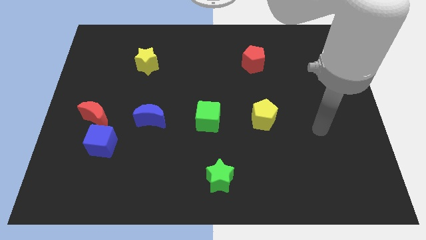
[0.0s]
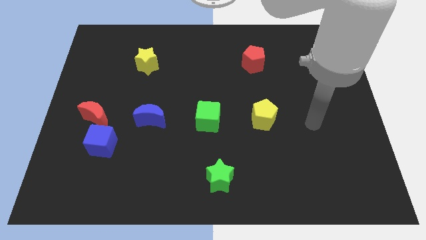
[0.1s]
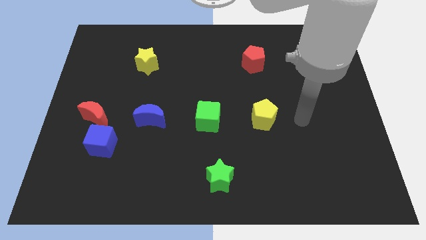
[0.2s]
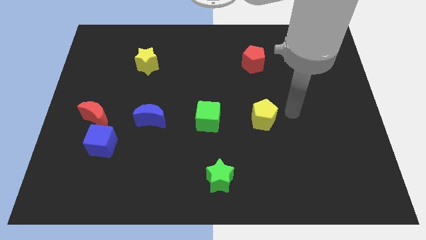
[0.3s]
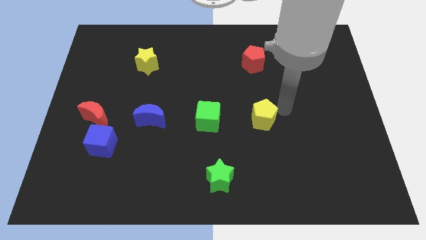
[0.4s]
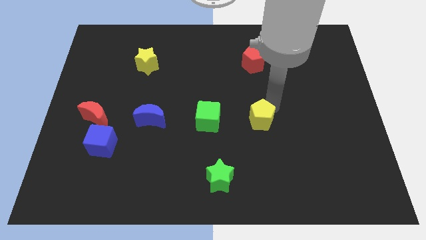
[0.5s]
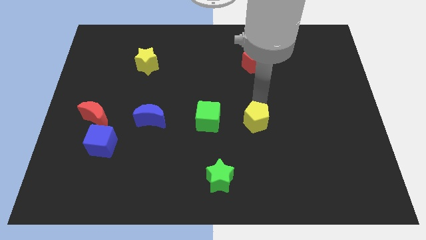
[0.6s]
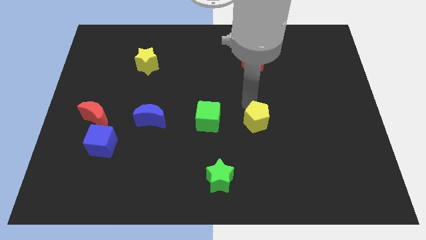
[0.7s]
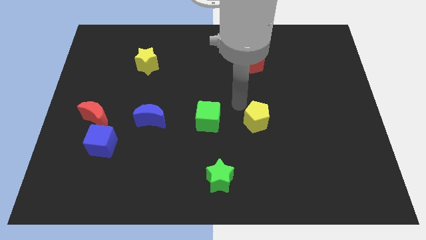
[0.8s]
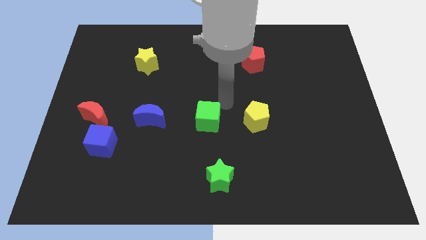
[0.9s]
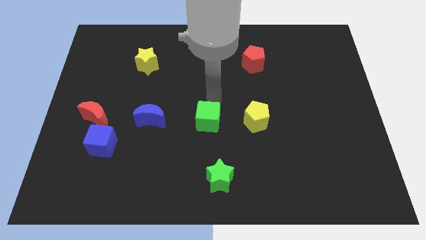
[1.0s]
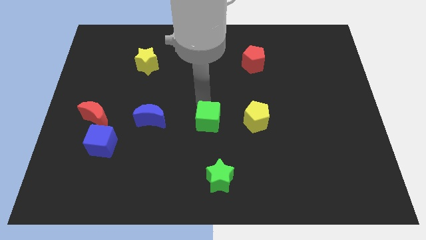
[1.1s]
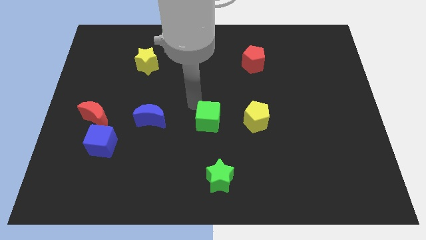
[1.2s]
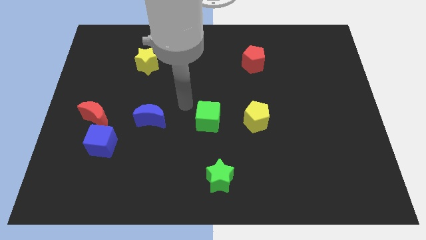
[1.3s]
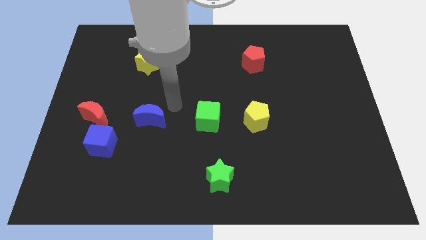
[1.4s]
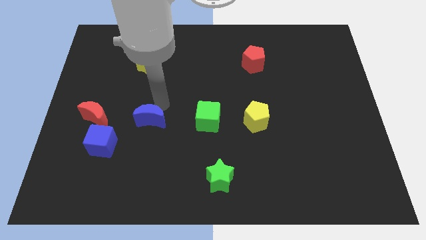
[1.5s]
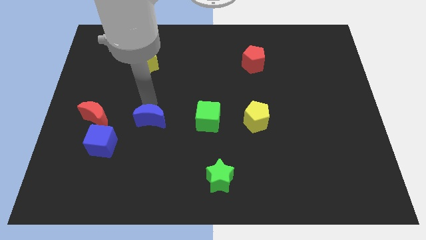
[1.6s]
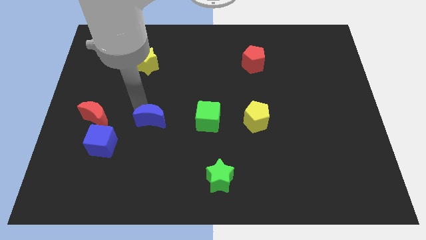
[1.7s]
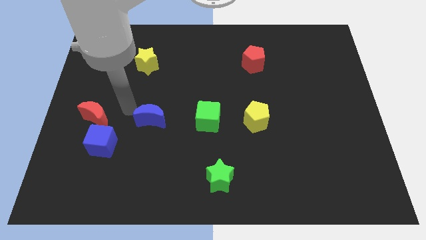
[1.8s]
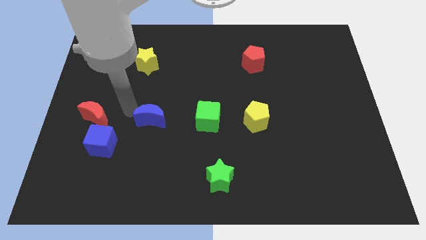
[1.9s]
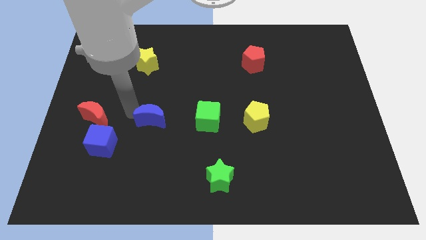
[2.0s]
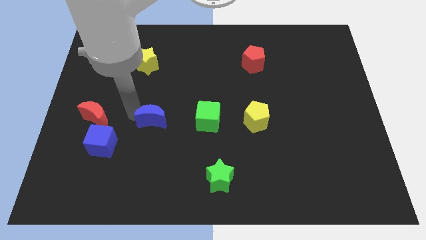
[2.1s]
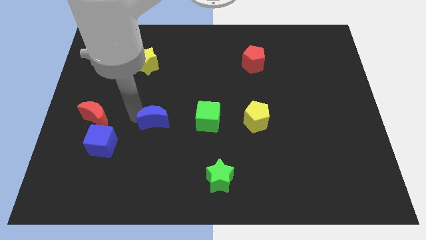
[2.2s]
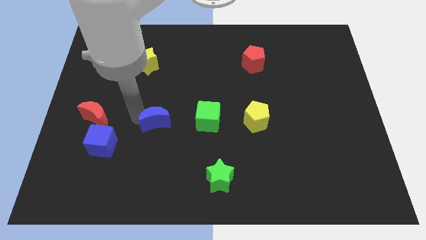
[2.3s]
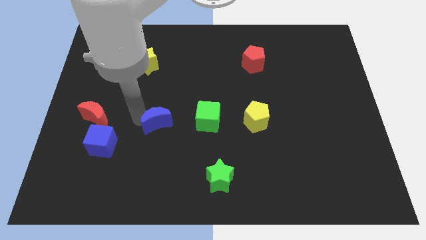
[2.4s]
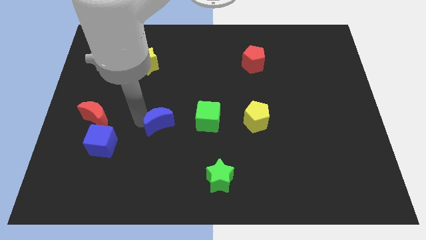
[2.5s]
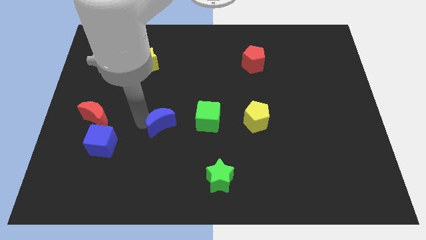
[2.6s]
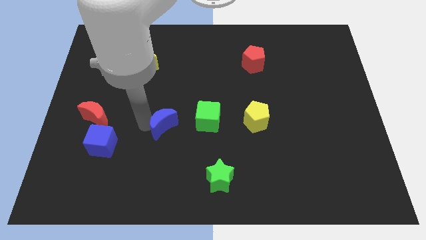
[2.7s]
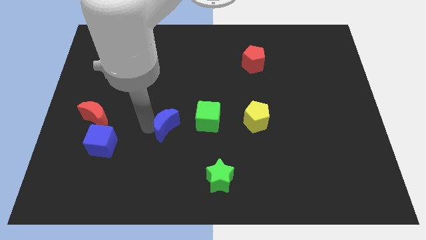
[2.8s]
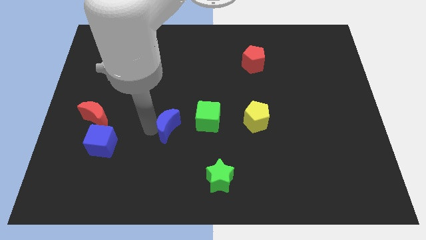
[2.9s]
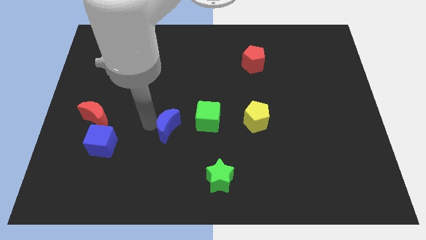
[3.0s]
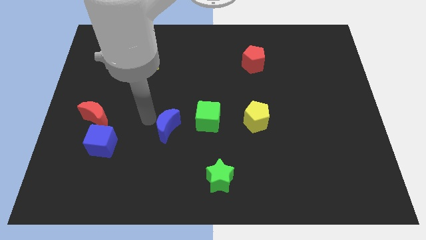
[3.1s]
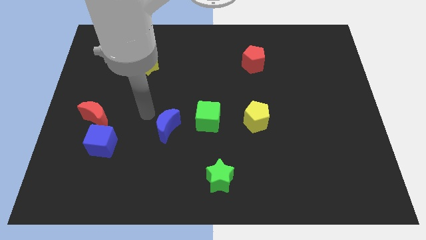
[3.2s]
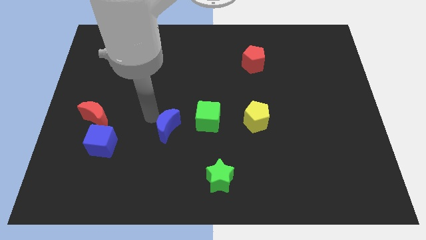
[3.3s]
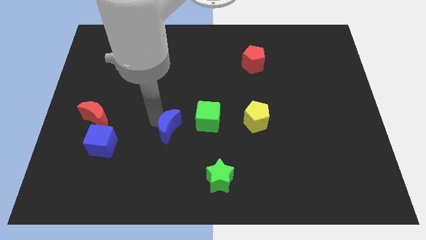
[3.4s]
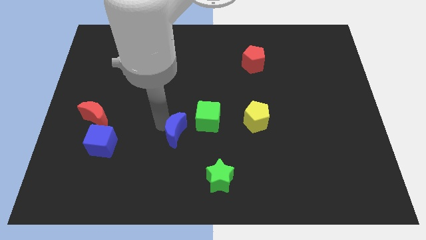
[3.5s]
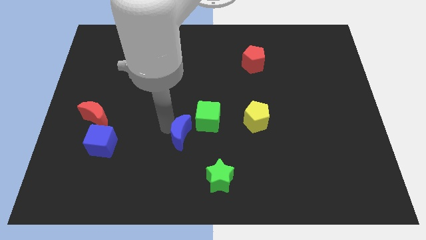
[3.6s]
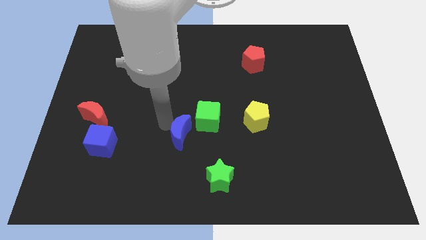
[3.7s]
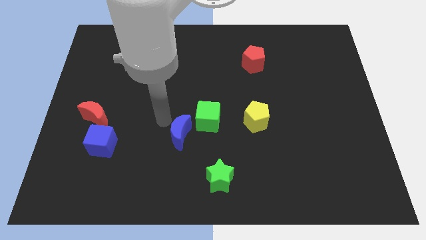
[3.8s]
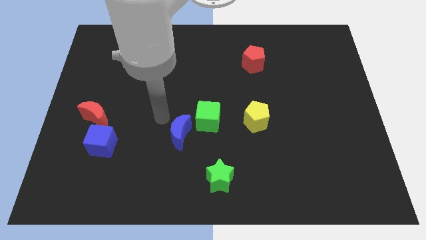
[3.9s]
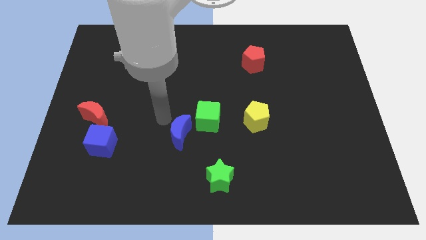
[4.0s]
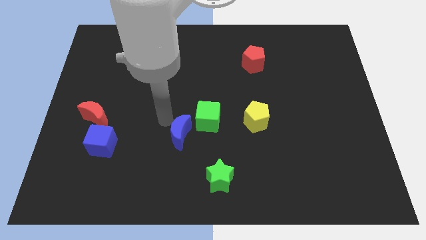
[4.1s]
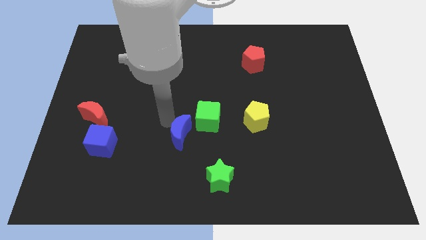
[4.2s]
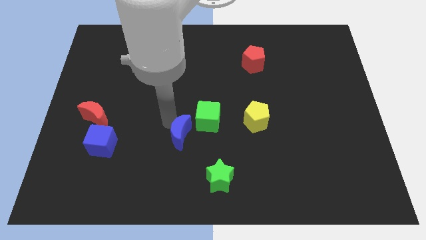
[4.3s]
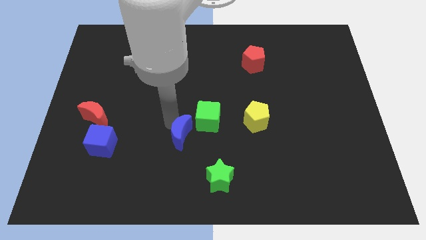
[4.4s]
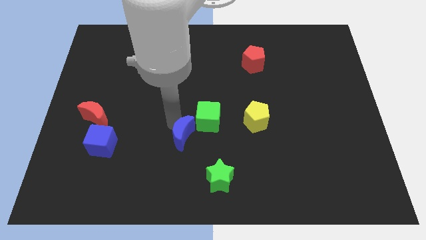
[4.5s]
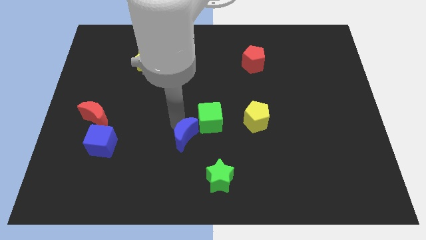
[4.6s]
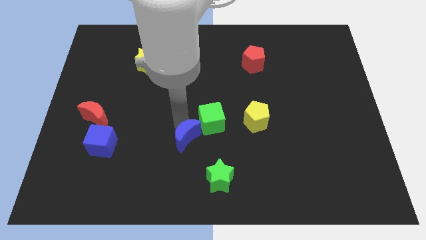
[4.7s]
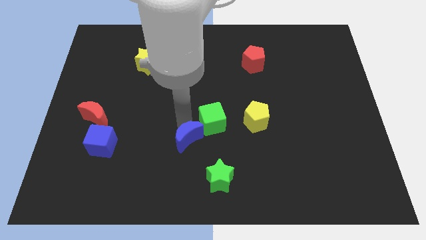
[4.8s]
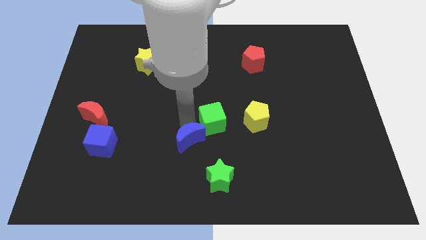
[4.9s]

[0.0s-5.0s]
put the blue moon to the bottom side of the green cube

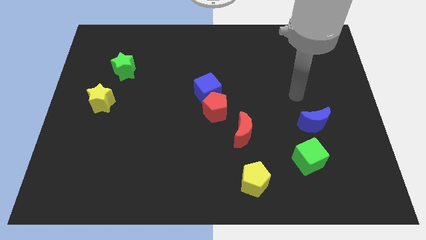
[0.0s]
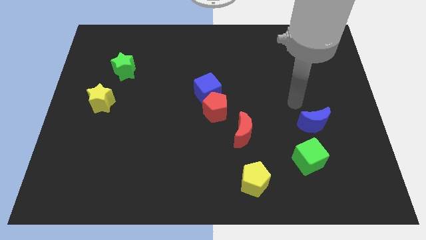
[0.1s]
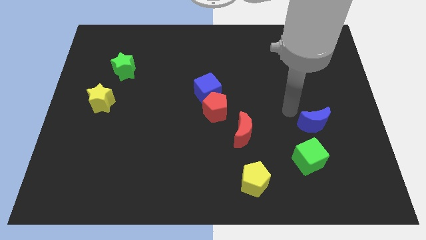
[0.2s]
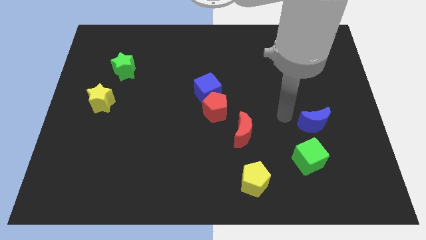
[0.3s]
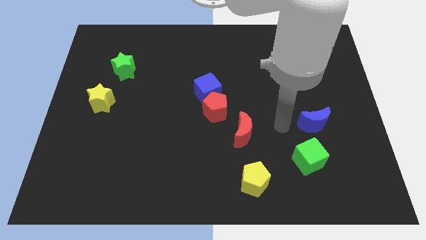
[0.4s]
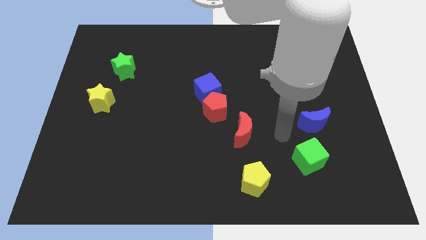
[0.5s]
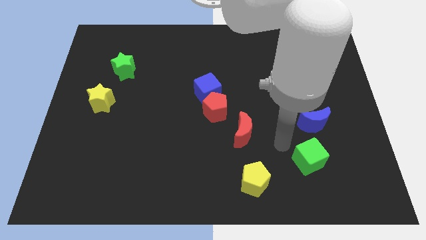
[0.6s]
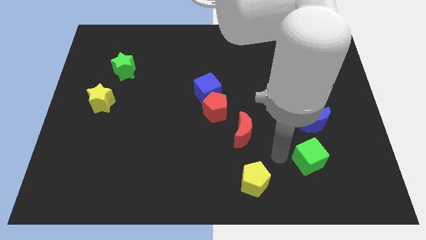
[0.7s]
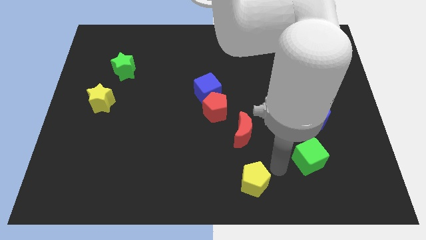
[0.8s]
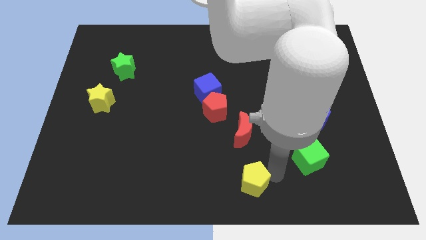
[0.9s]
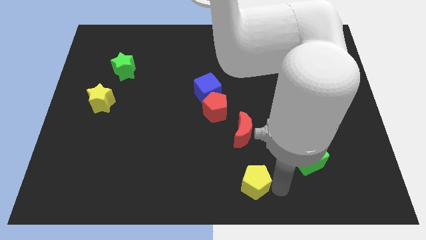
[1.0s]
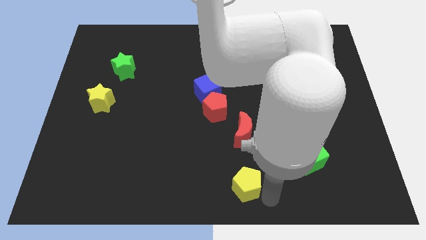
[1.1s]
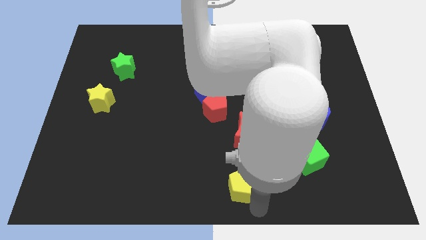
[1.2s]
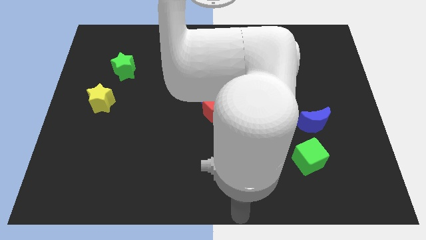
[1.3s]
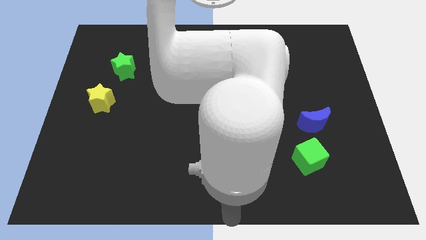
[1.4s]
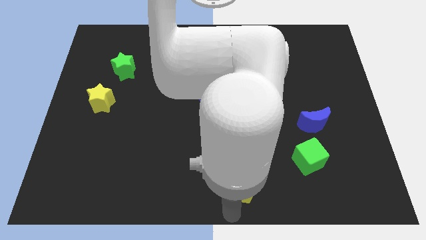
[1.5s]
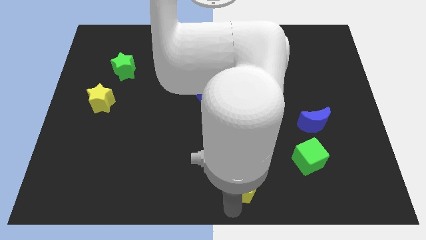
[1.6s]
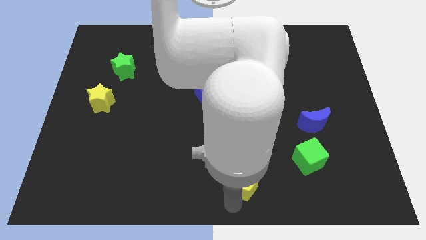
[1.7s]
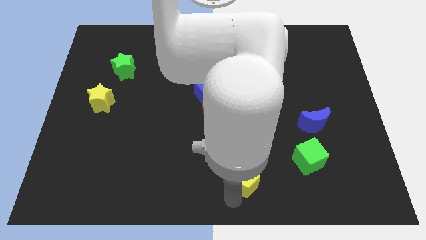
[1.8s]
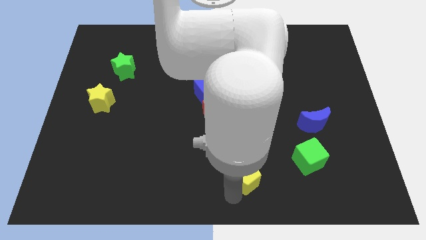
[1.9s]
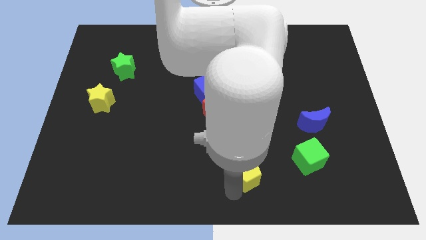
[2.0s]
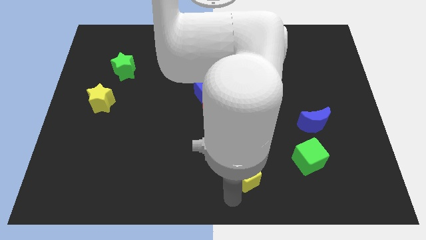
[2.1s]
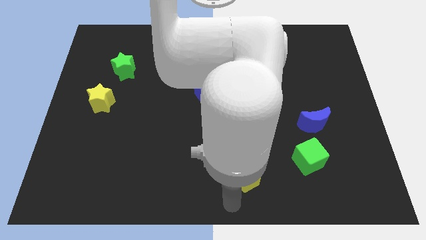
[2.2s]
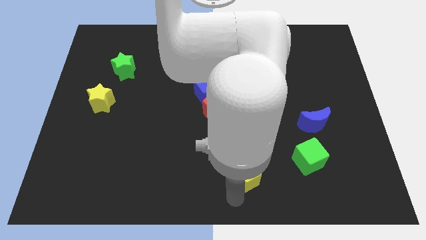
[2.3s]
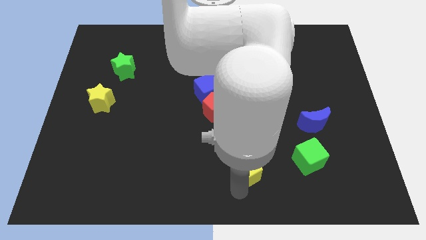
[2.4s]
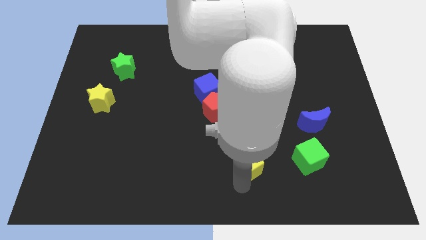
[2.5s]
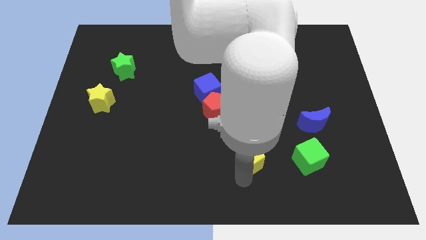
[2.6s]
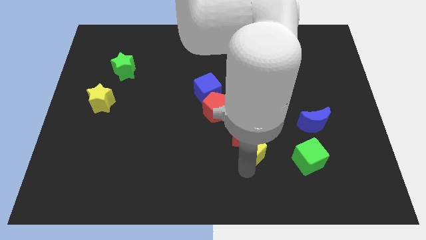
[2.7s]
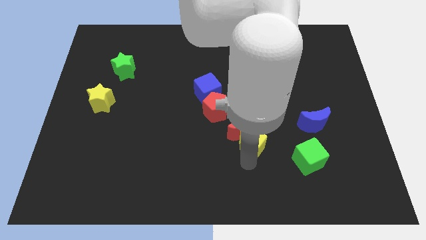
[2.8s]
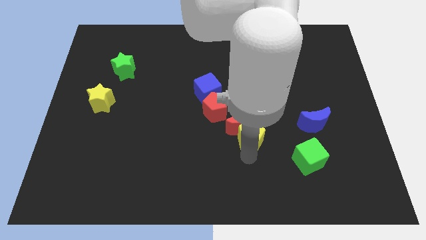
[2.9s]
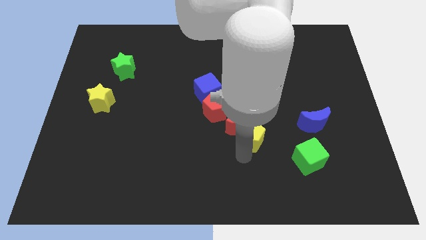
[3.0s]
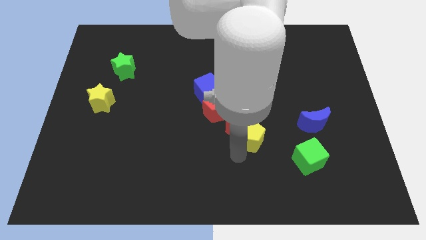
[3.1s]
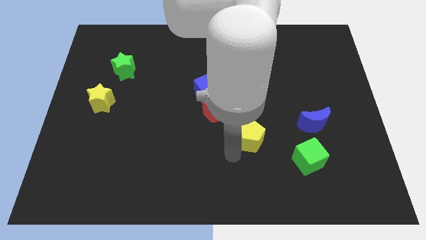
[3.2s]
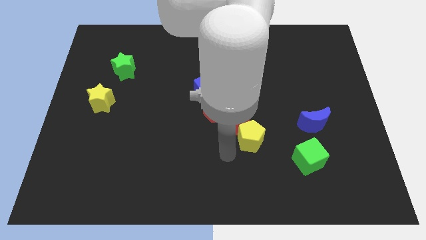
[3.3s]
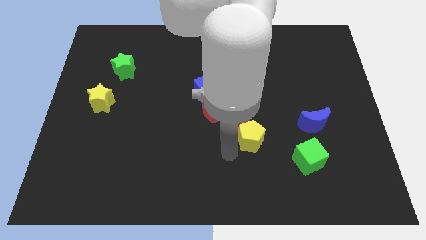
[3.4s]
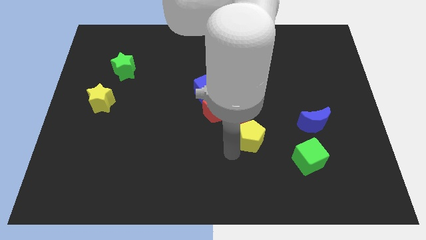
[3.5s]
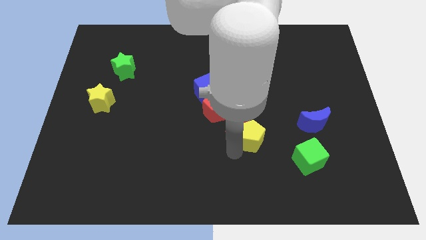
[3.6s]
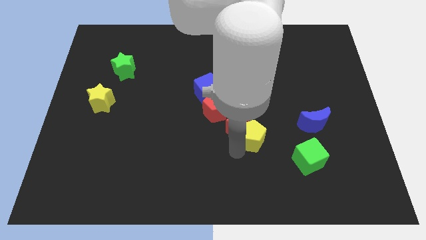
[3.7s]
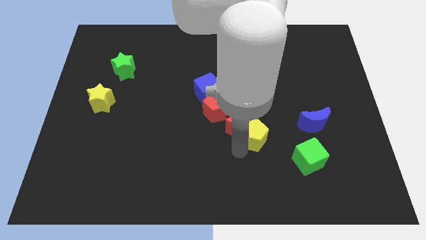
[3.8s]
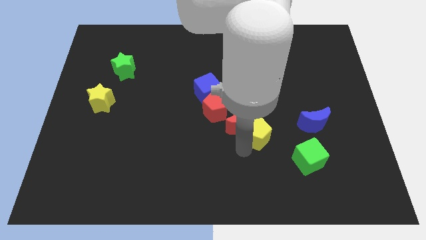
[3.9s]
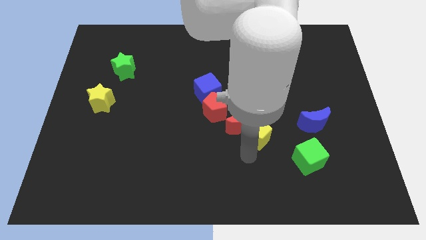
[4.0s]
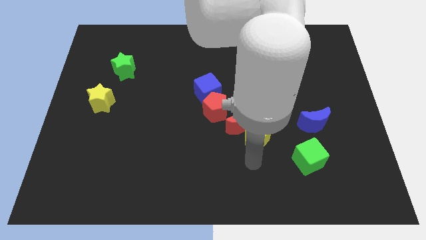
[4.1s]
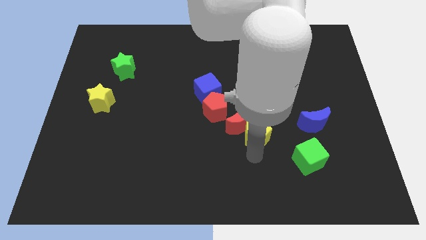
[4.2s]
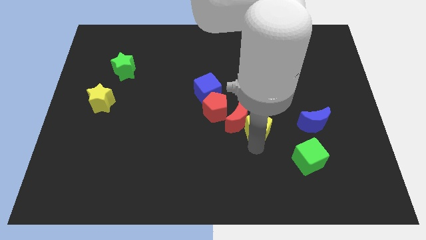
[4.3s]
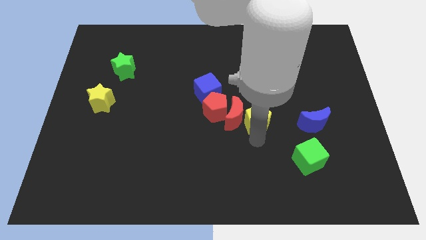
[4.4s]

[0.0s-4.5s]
move the yellow pentagon to the right side of the red pentagon
